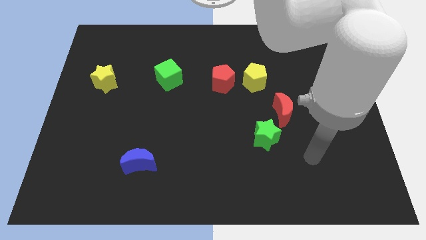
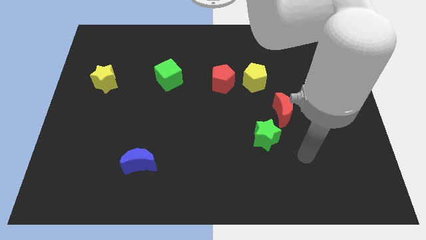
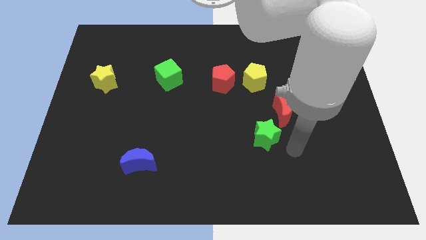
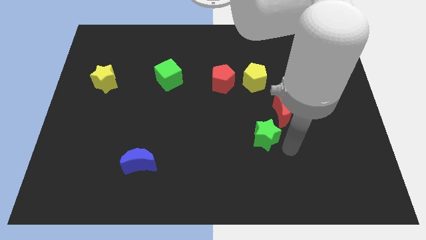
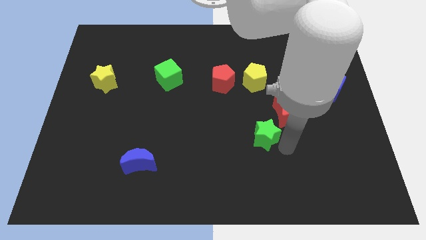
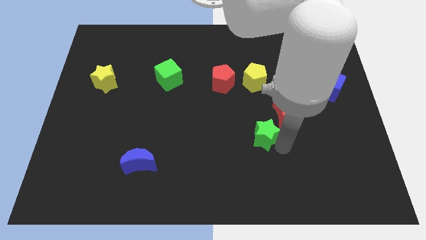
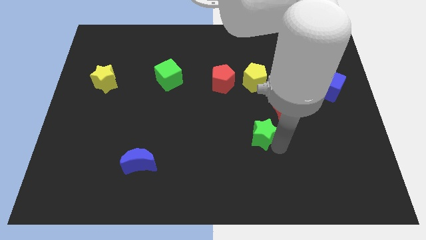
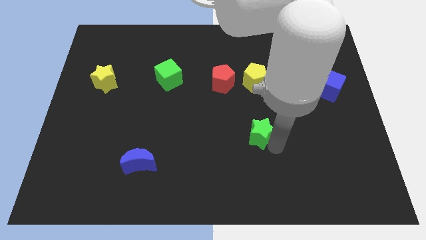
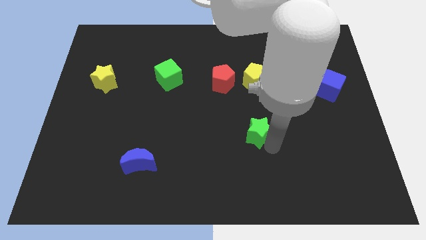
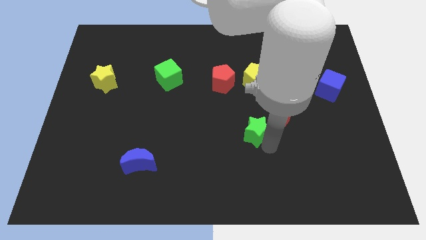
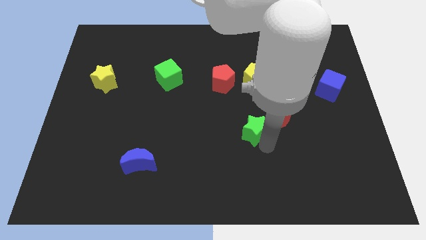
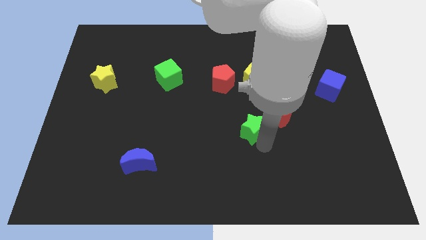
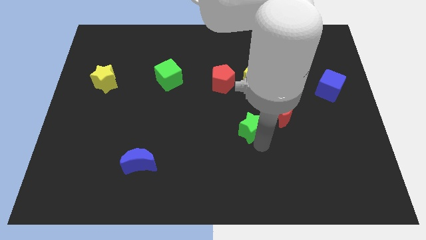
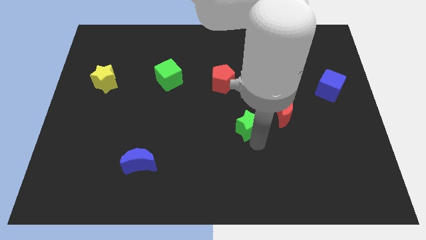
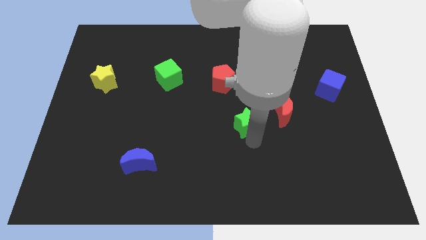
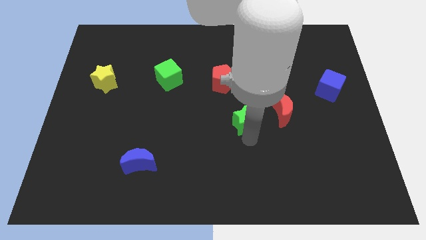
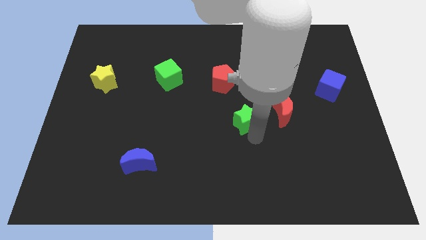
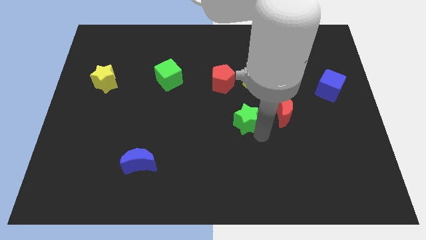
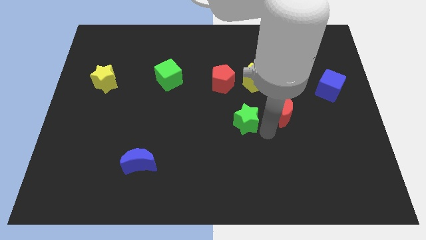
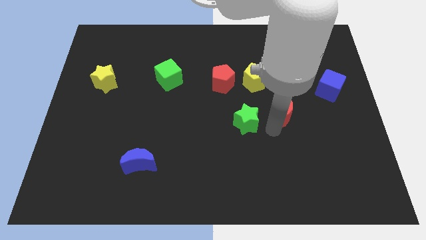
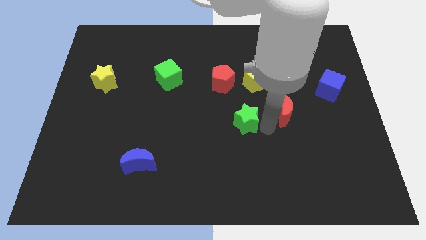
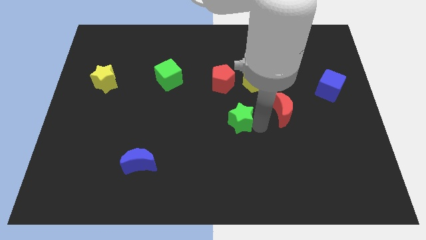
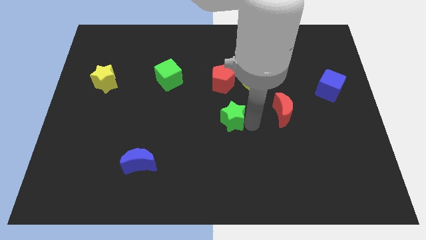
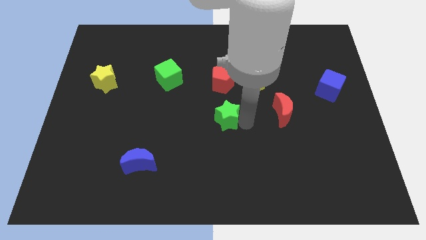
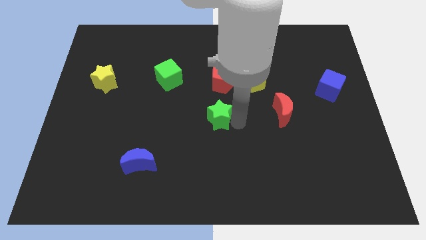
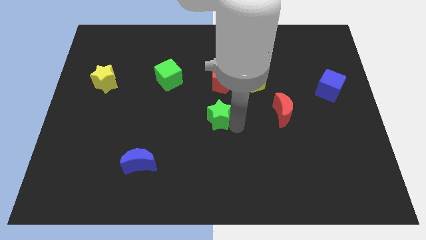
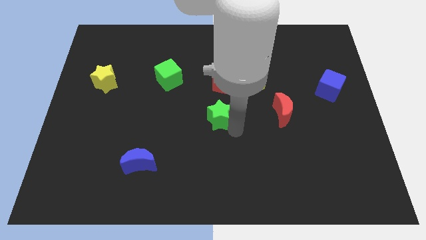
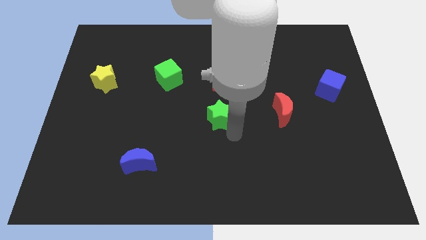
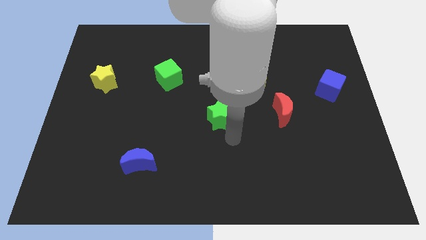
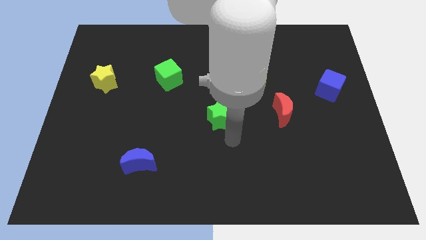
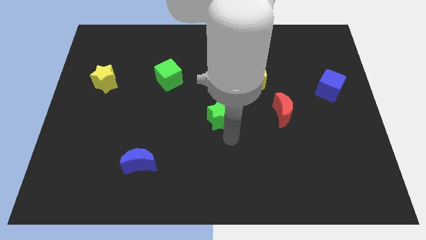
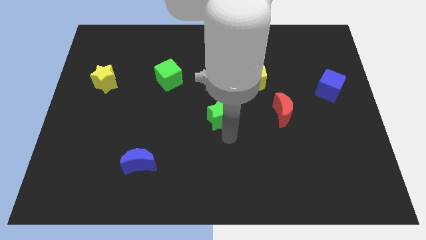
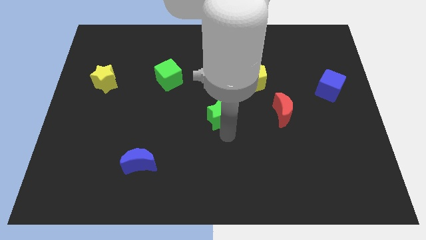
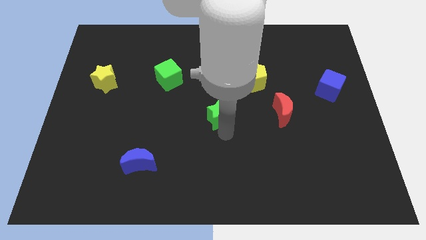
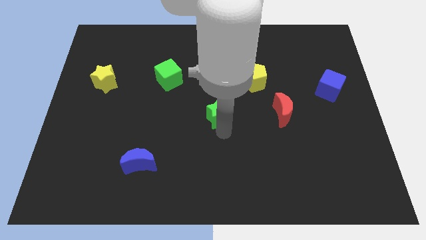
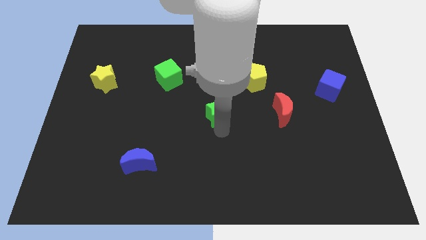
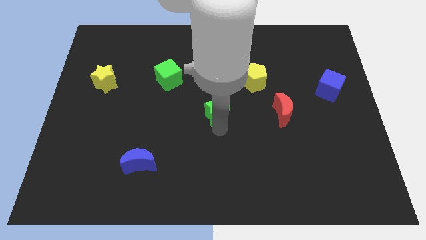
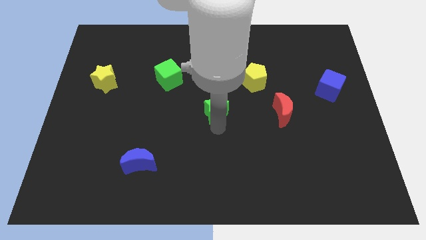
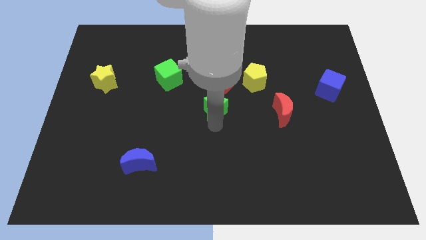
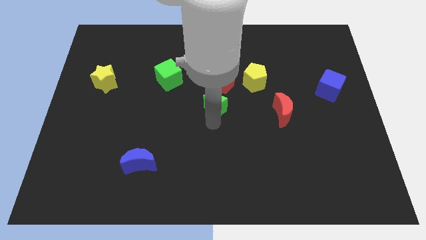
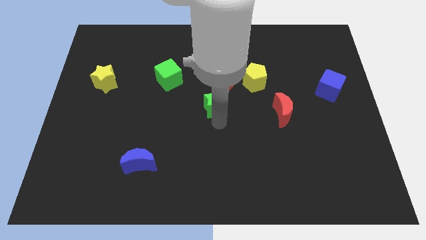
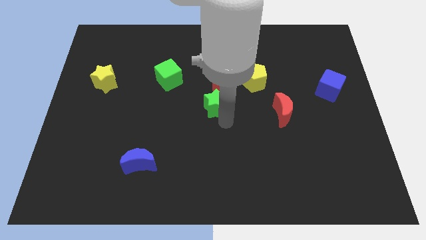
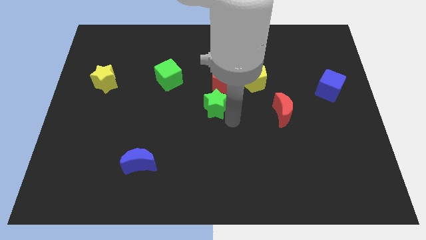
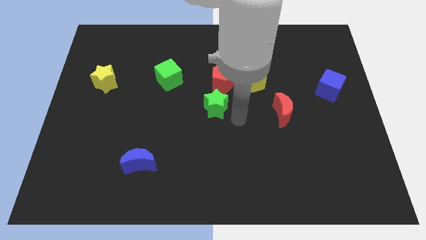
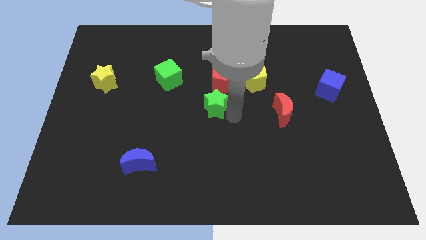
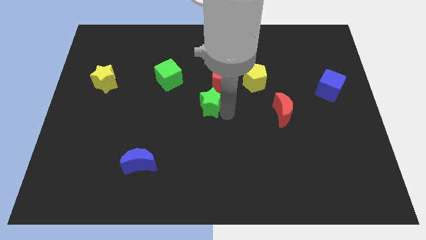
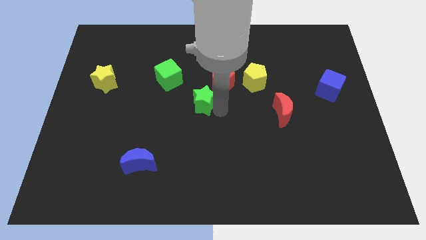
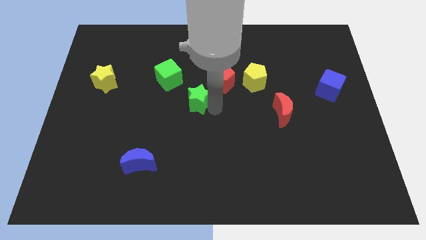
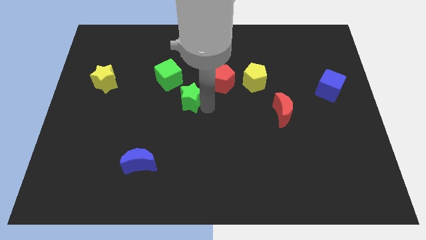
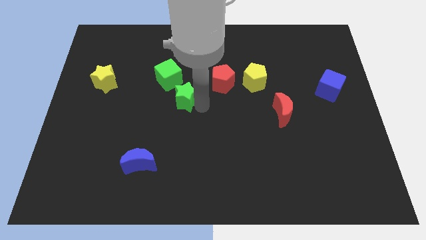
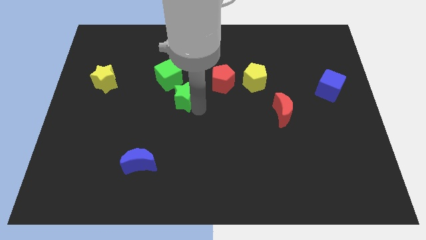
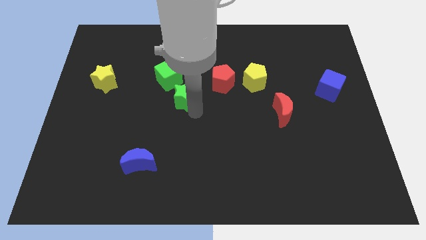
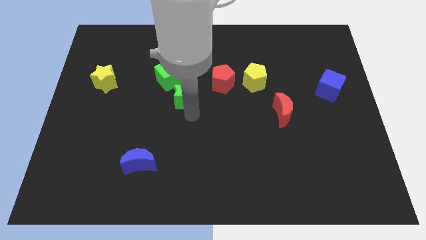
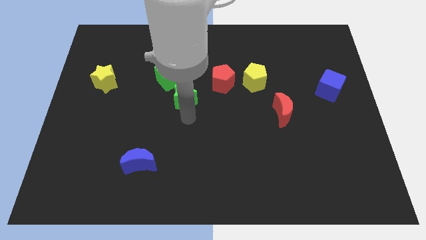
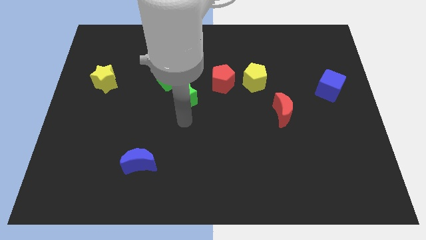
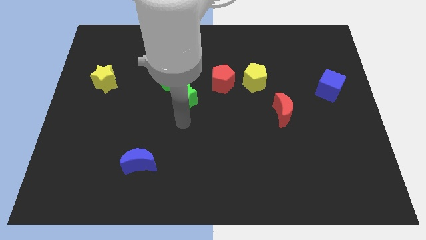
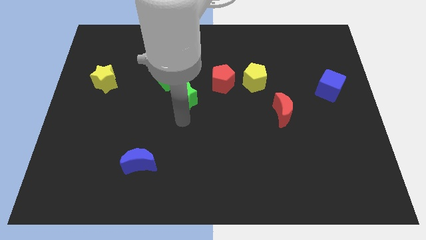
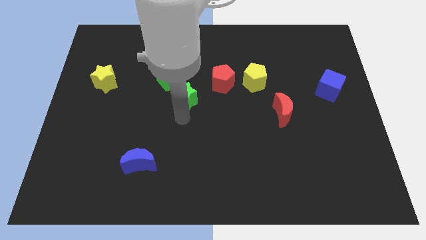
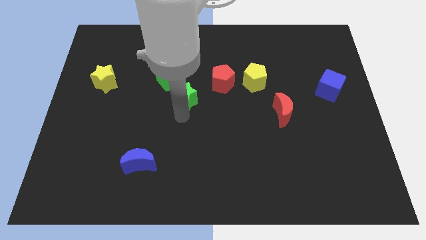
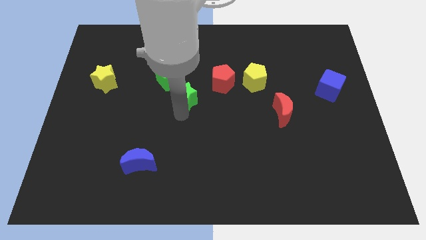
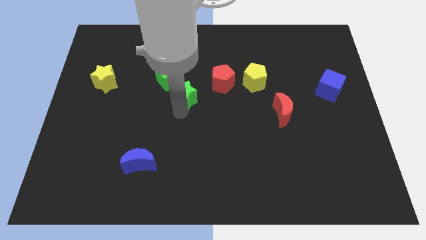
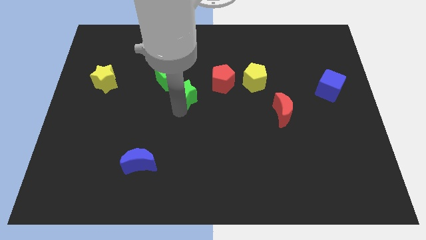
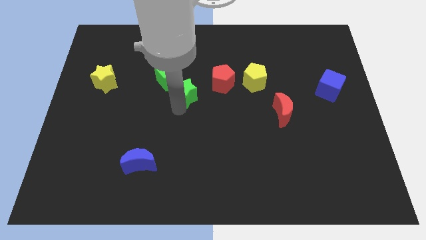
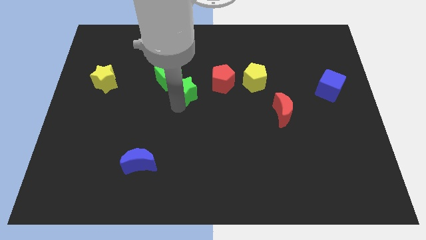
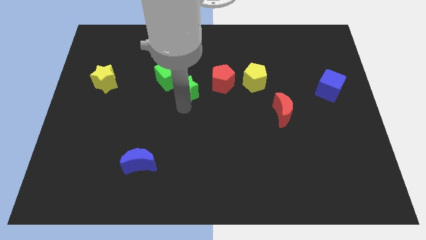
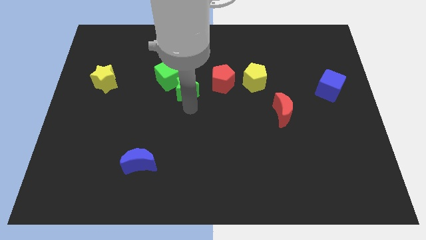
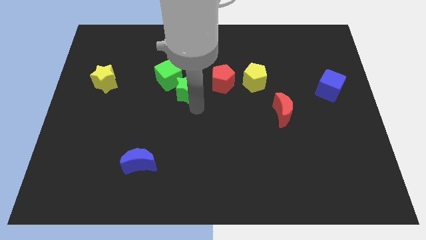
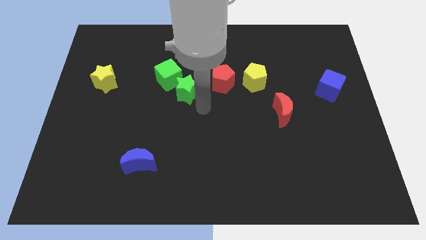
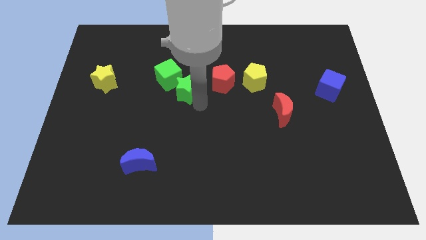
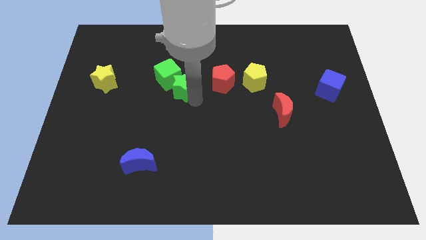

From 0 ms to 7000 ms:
push the green star next to the green cube
